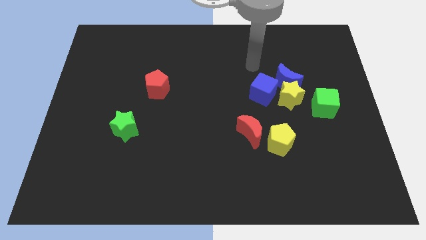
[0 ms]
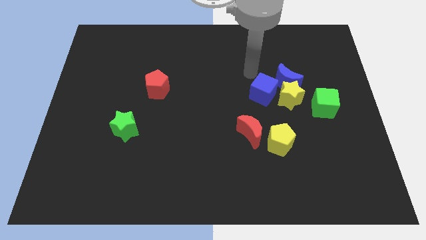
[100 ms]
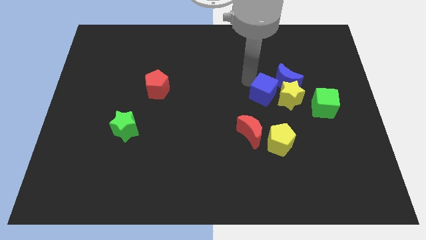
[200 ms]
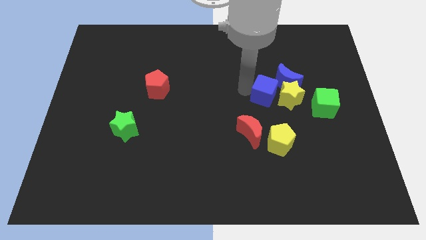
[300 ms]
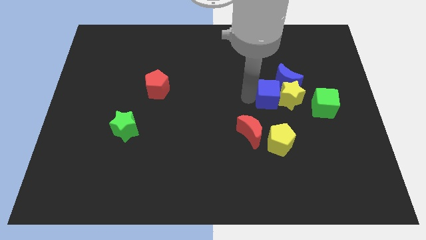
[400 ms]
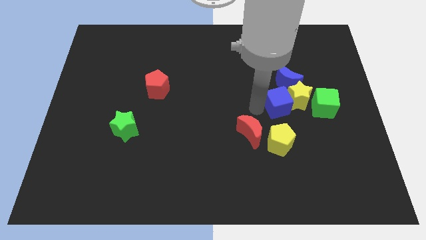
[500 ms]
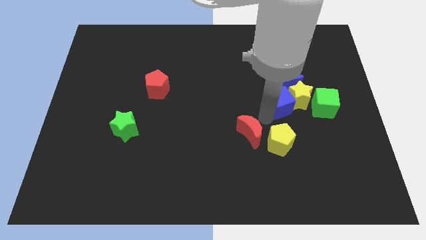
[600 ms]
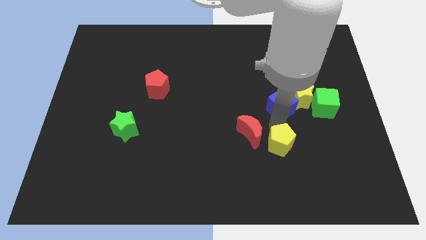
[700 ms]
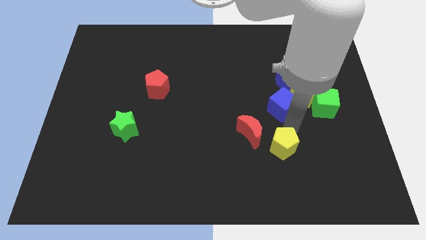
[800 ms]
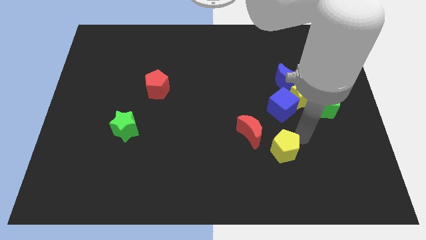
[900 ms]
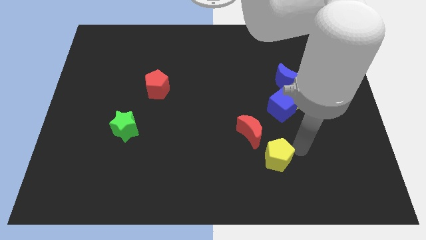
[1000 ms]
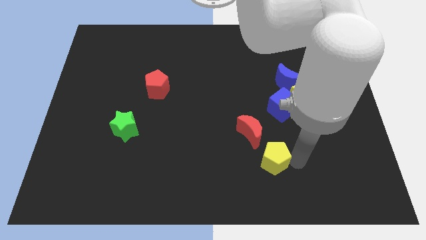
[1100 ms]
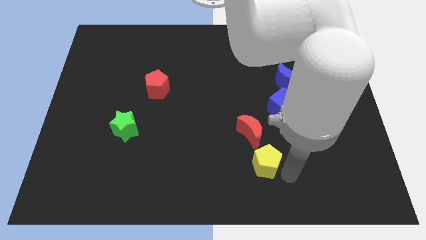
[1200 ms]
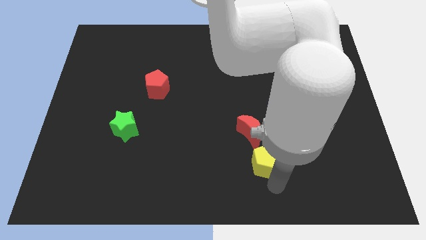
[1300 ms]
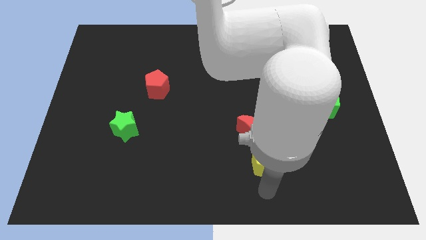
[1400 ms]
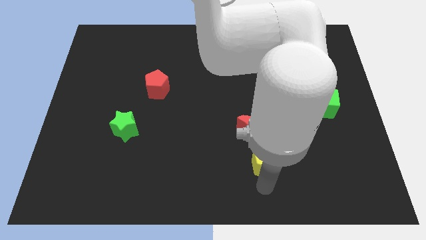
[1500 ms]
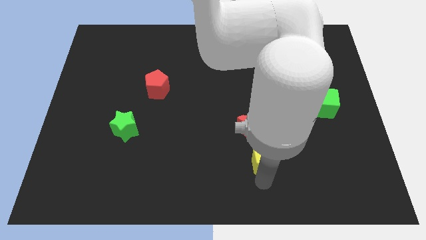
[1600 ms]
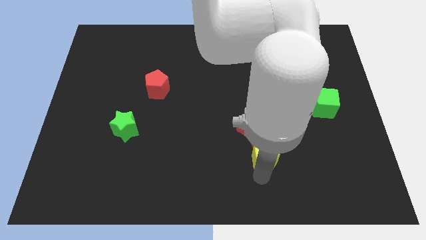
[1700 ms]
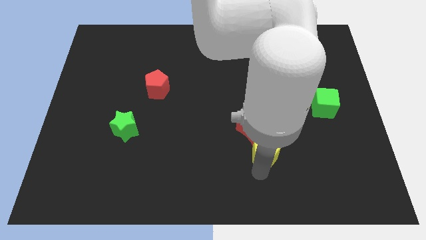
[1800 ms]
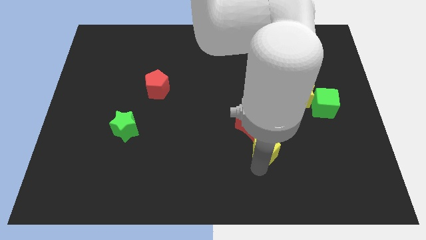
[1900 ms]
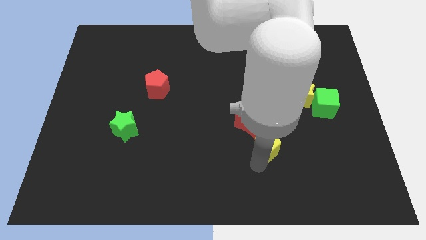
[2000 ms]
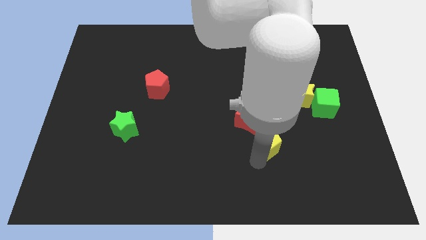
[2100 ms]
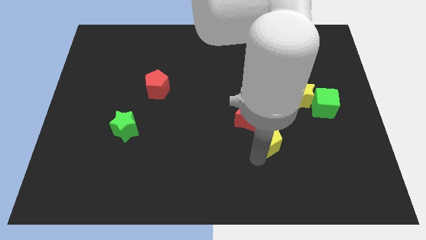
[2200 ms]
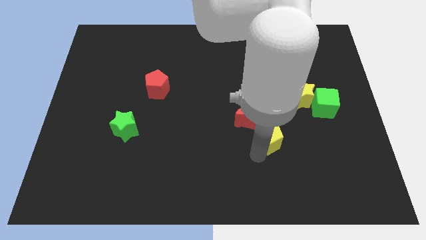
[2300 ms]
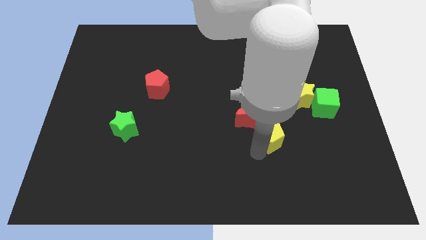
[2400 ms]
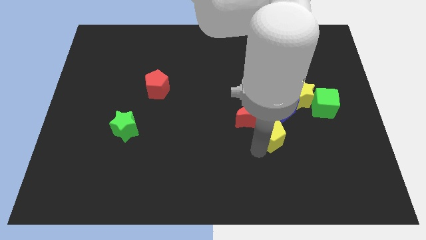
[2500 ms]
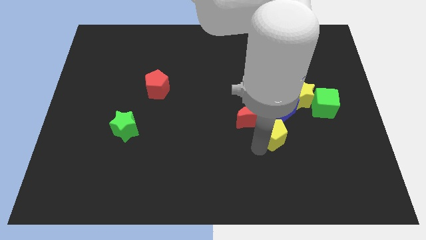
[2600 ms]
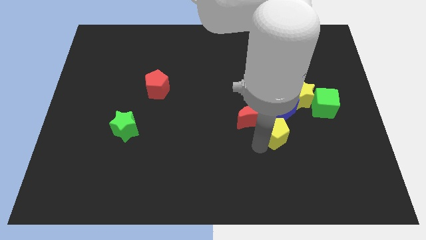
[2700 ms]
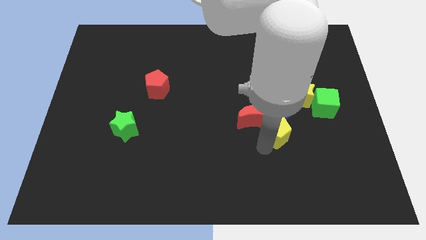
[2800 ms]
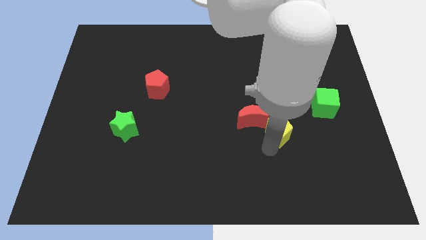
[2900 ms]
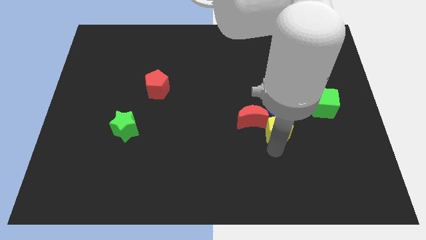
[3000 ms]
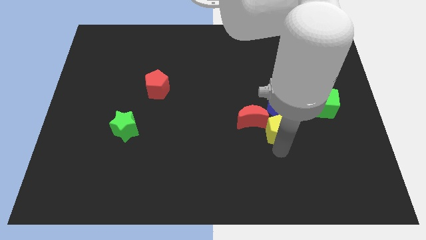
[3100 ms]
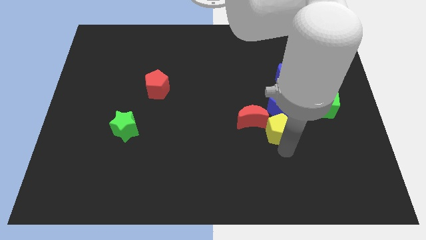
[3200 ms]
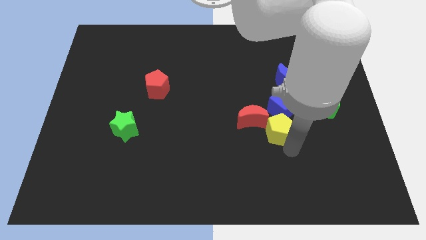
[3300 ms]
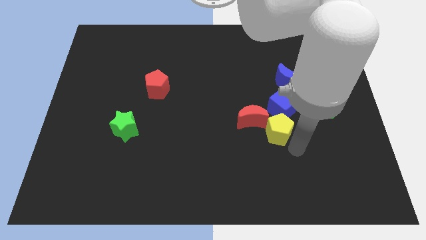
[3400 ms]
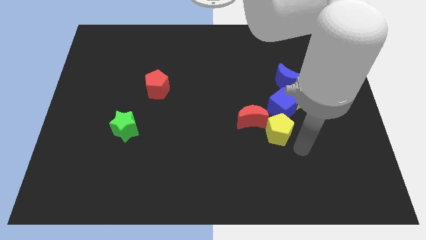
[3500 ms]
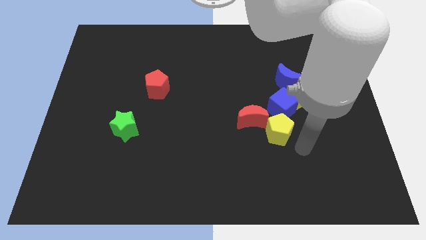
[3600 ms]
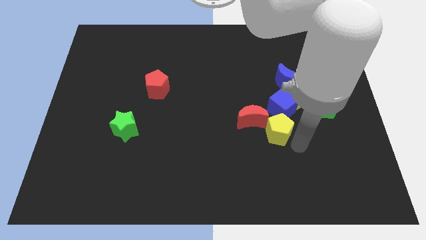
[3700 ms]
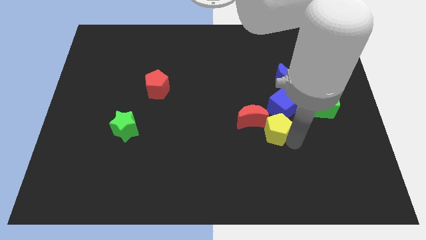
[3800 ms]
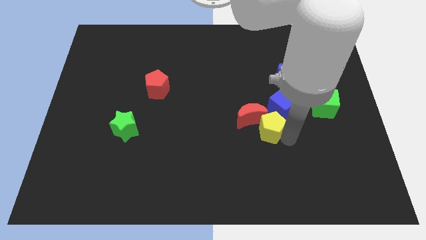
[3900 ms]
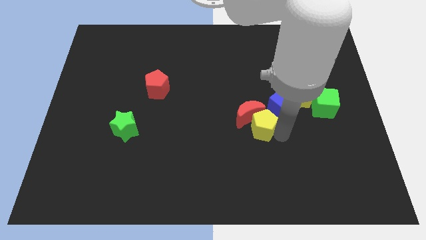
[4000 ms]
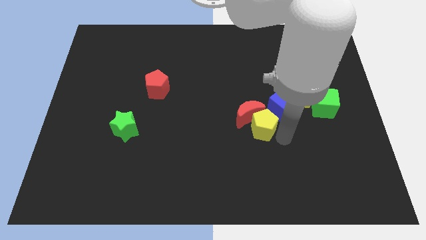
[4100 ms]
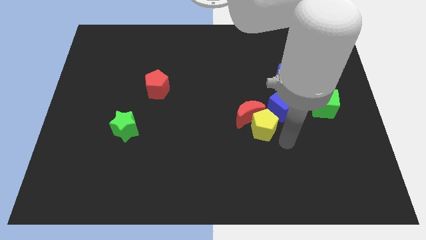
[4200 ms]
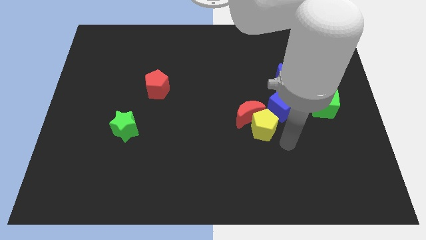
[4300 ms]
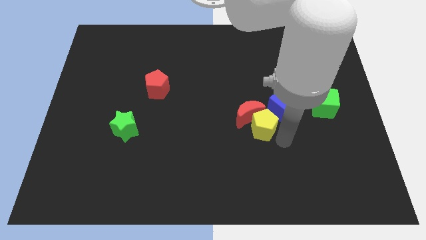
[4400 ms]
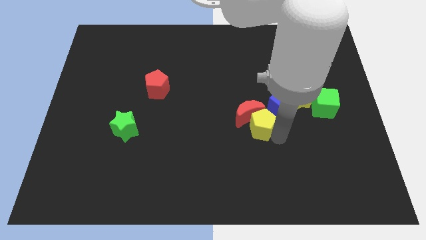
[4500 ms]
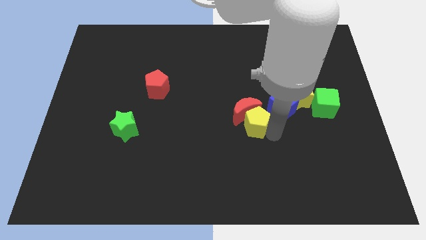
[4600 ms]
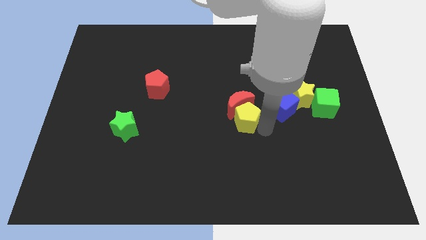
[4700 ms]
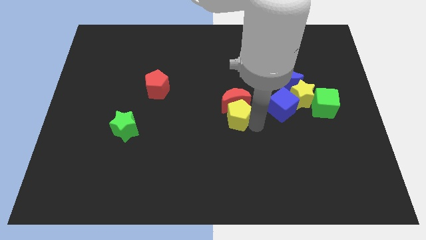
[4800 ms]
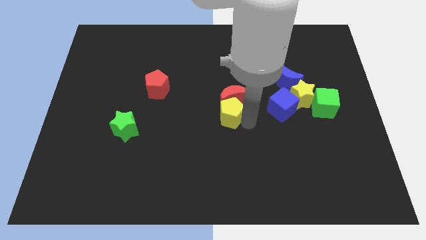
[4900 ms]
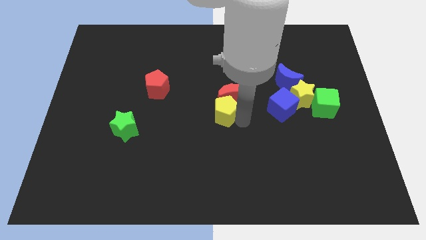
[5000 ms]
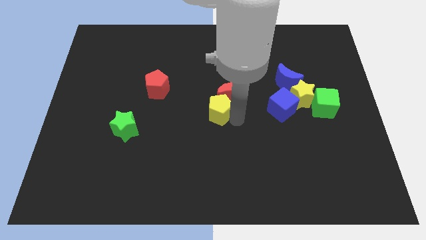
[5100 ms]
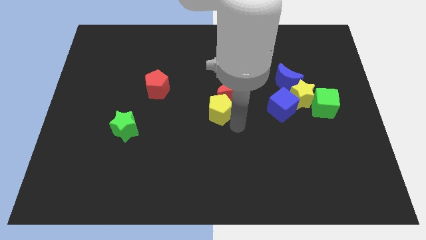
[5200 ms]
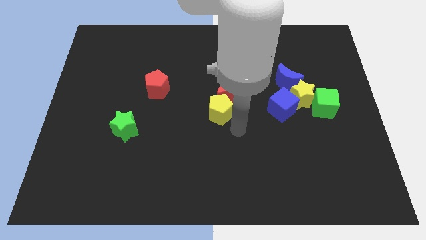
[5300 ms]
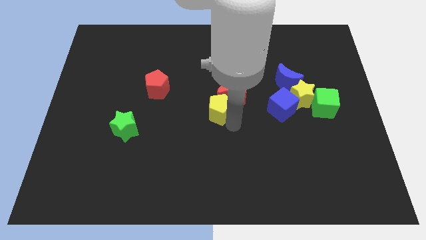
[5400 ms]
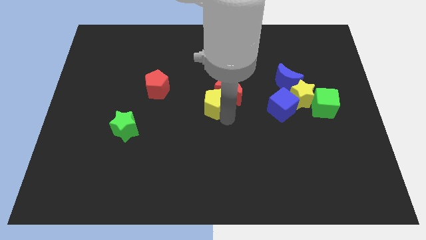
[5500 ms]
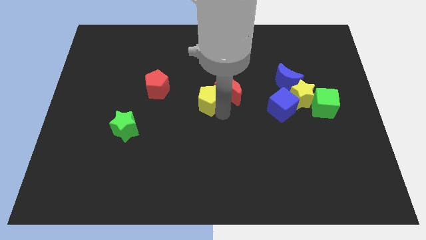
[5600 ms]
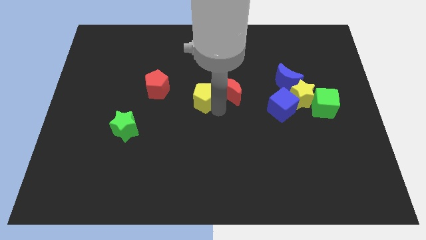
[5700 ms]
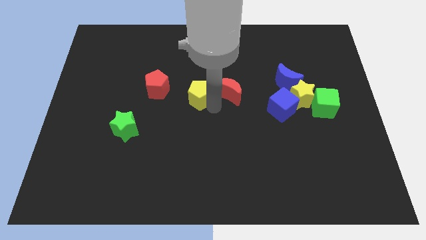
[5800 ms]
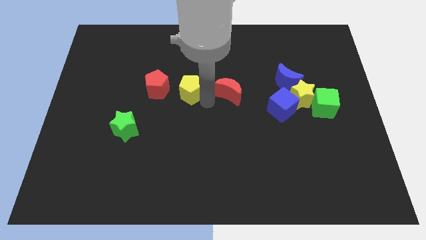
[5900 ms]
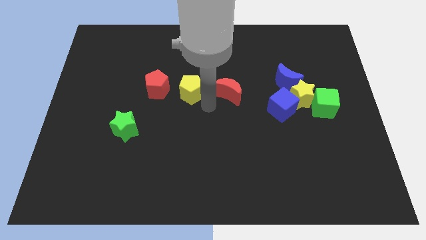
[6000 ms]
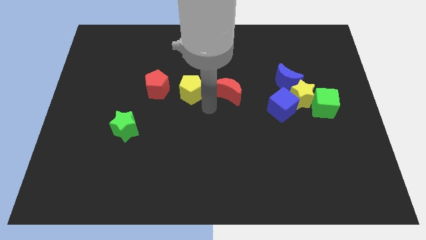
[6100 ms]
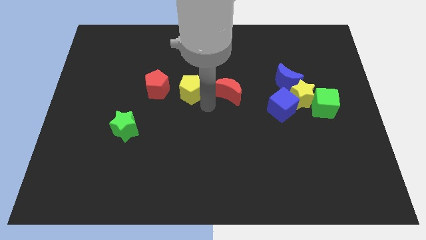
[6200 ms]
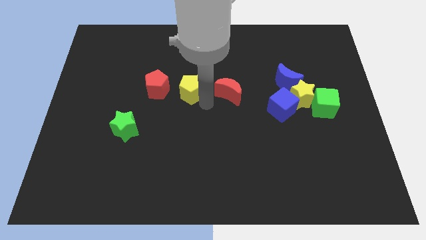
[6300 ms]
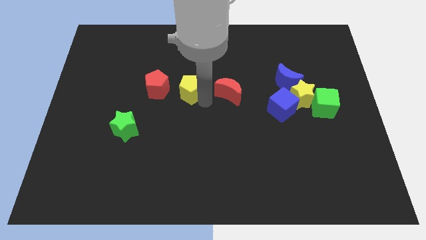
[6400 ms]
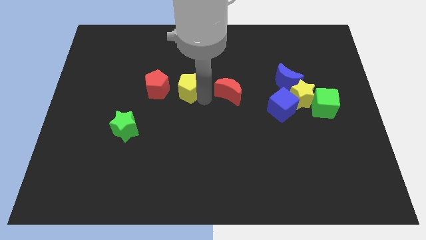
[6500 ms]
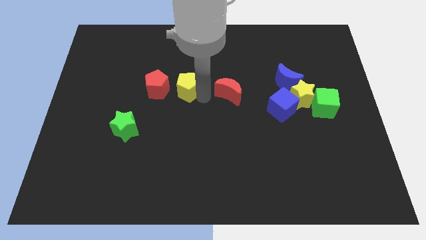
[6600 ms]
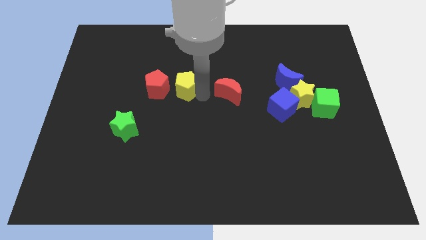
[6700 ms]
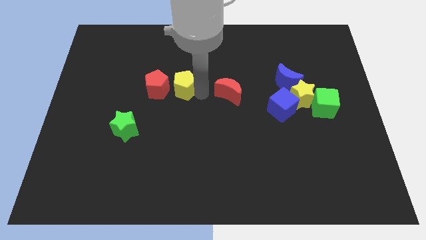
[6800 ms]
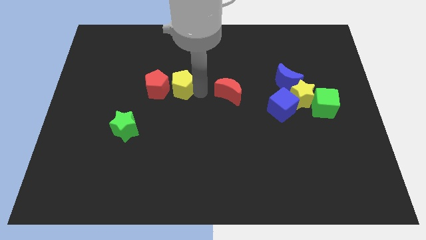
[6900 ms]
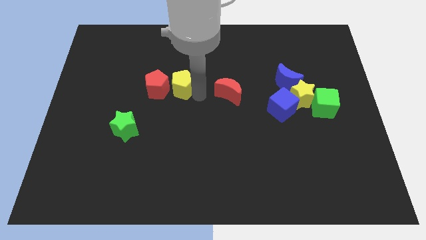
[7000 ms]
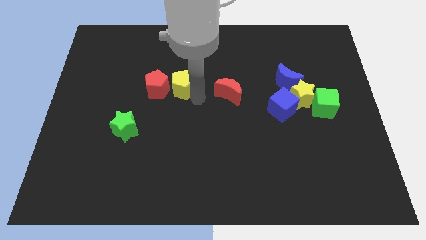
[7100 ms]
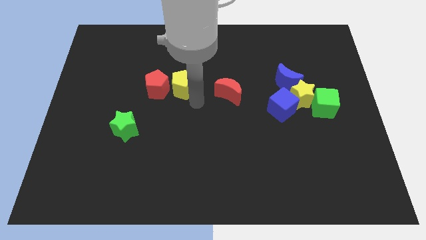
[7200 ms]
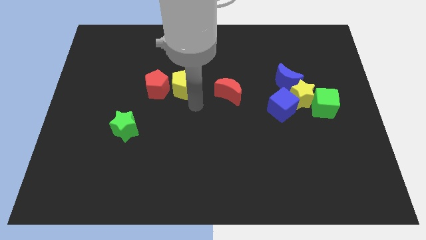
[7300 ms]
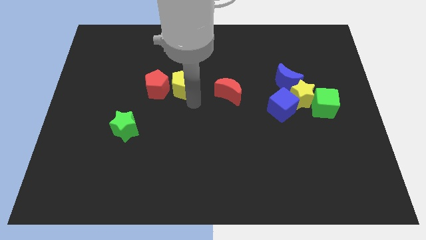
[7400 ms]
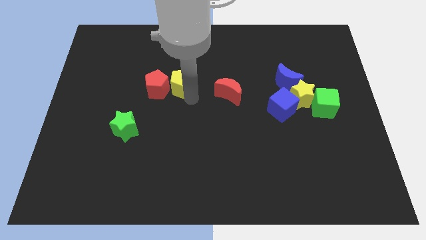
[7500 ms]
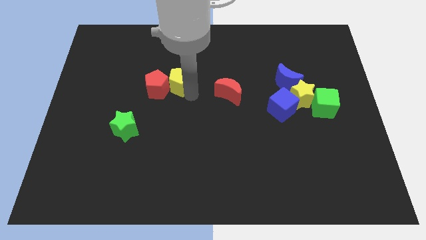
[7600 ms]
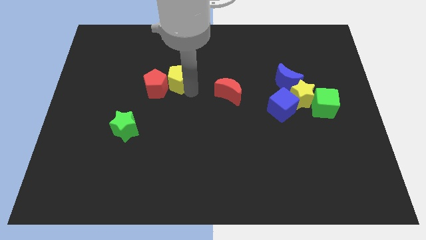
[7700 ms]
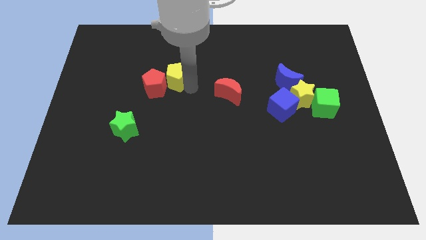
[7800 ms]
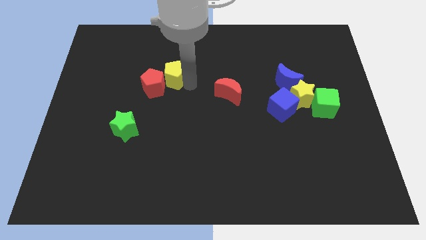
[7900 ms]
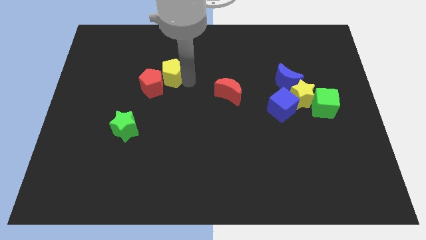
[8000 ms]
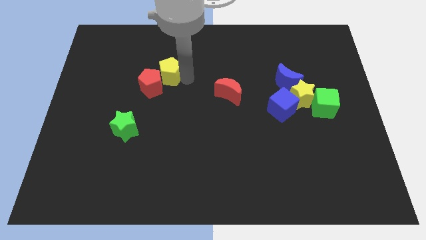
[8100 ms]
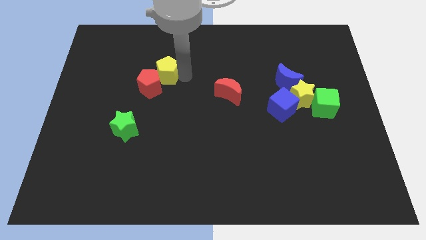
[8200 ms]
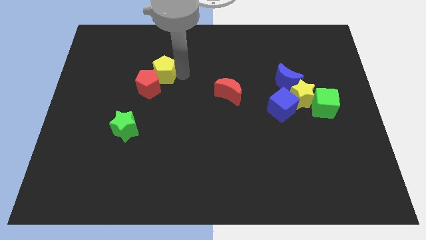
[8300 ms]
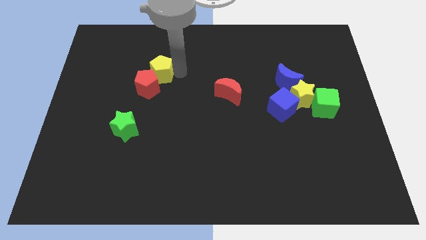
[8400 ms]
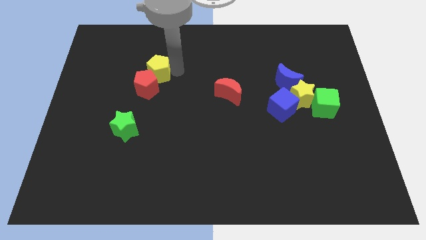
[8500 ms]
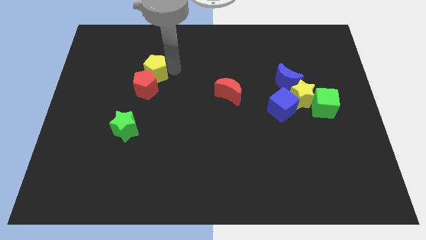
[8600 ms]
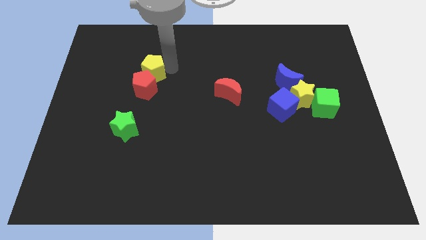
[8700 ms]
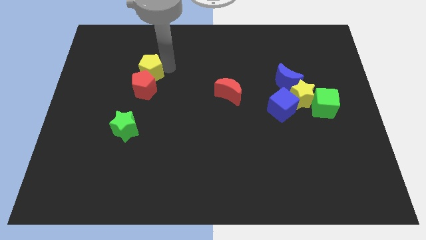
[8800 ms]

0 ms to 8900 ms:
slide the yellow pentagon diagonally up and to the left of the red pentagon
